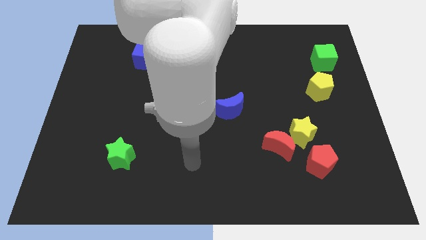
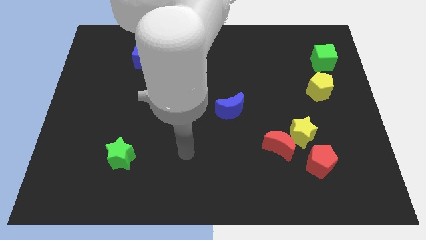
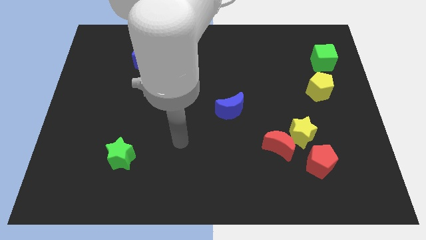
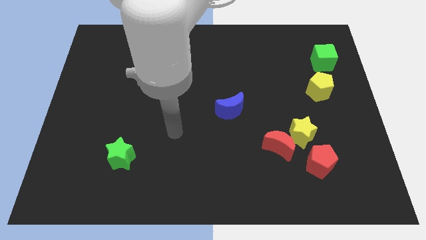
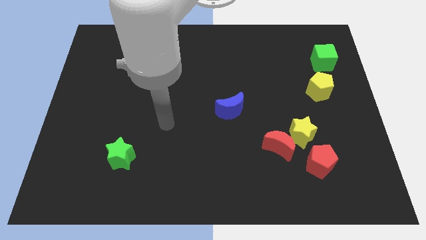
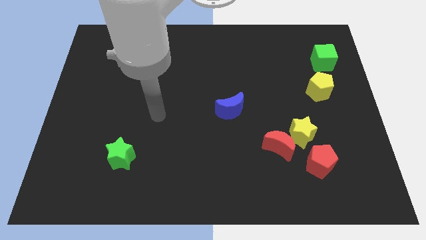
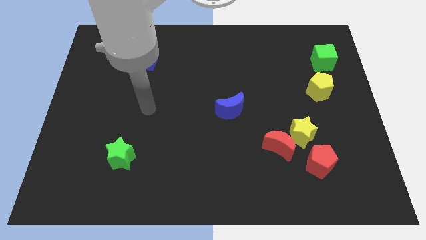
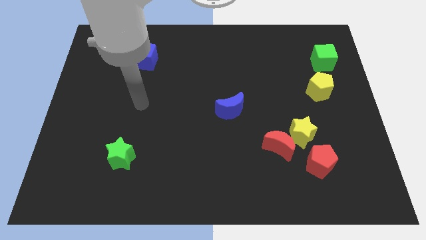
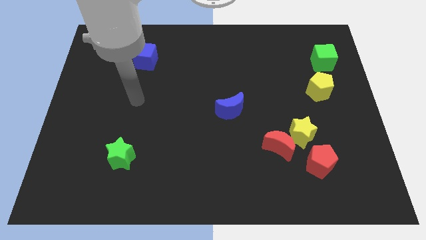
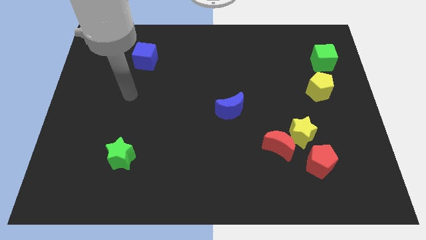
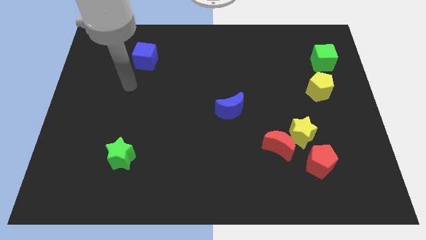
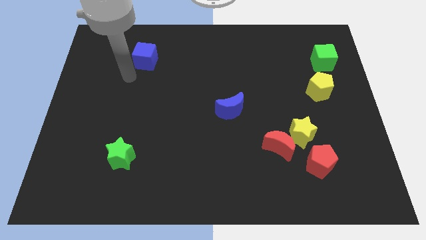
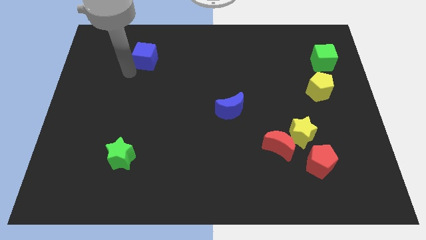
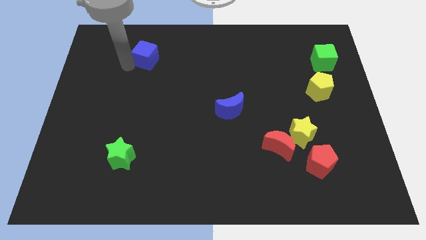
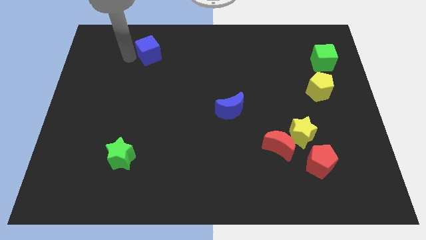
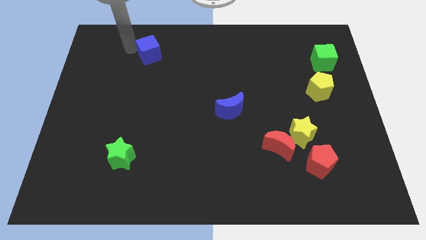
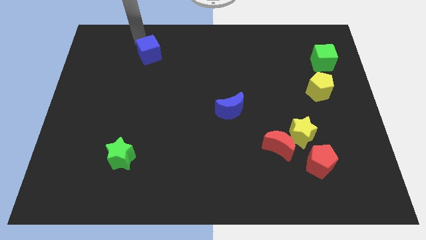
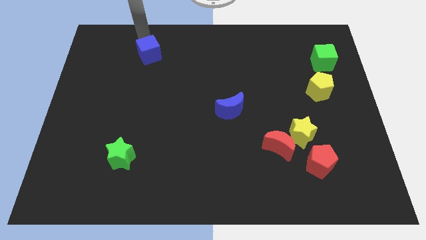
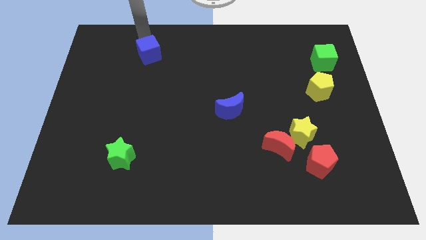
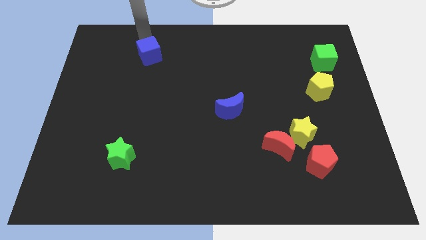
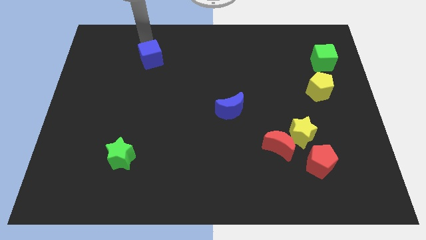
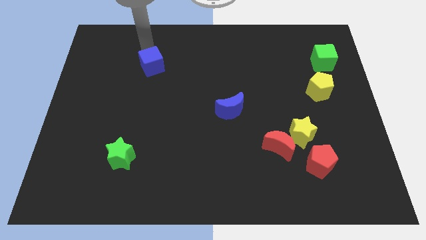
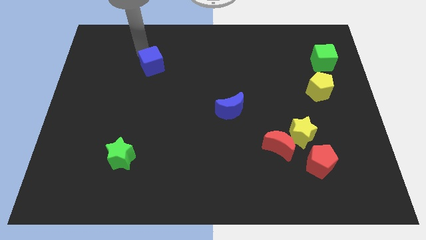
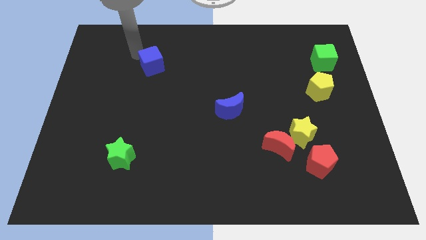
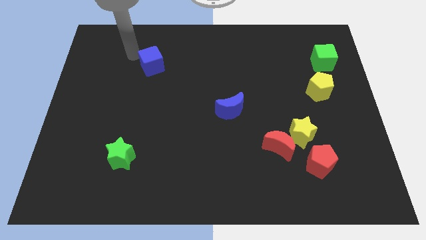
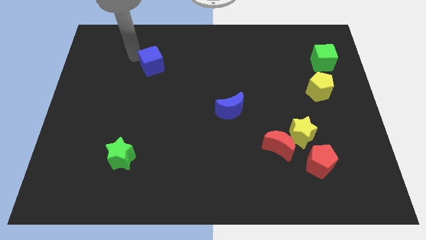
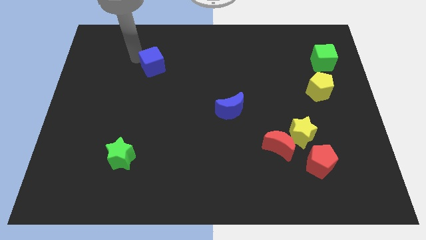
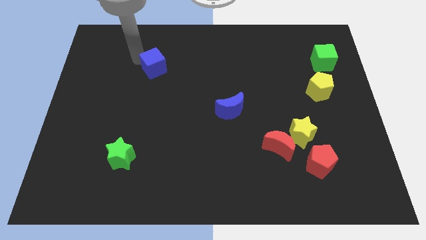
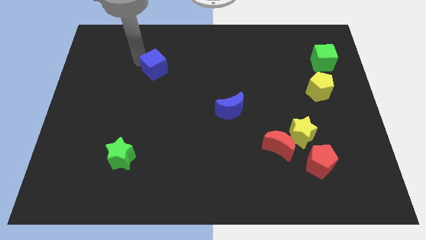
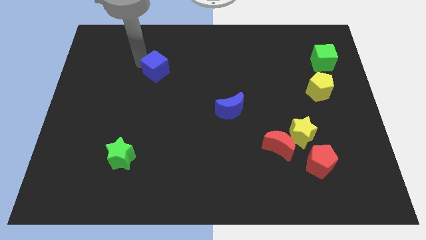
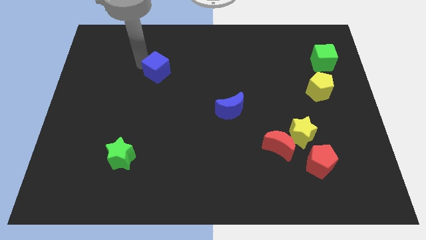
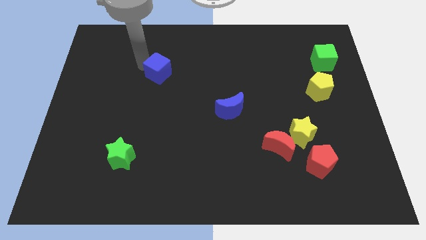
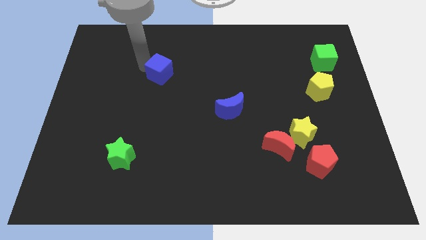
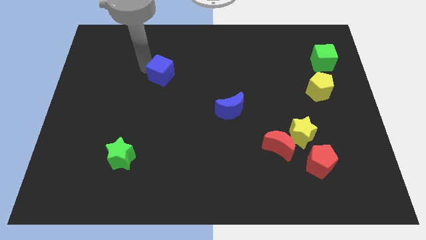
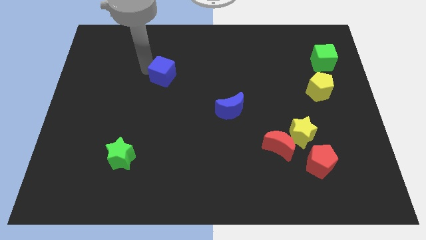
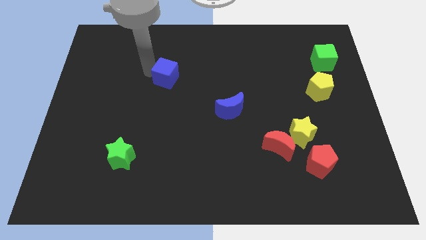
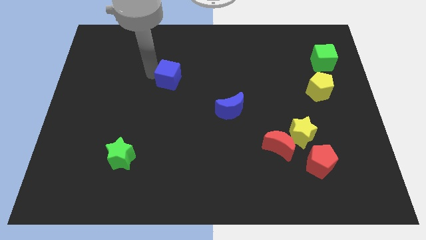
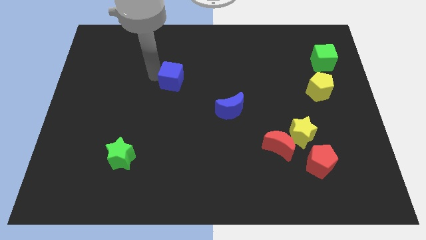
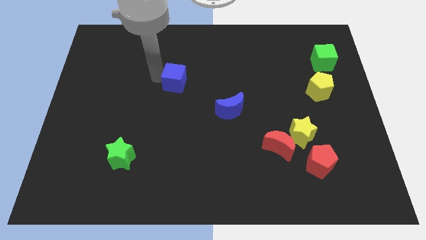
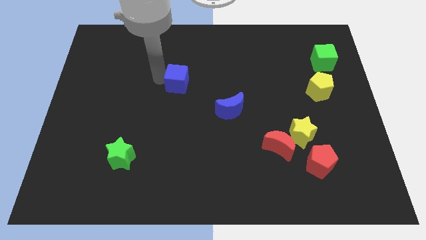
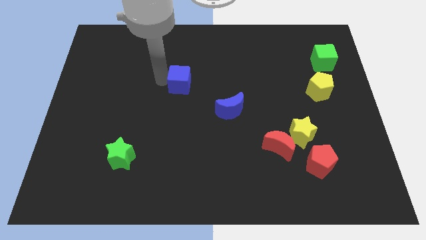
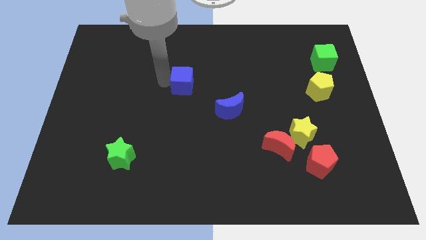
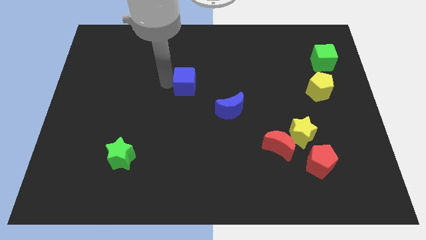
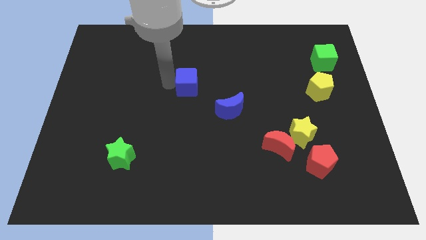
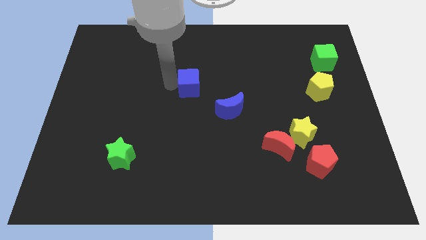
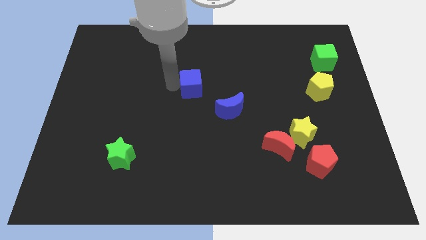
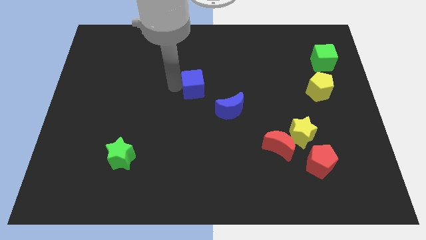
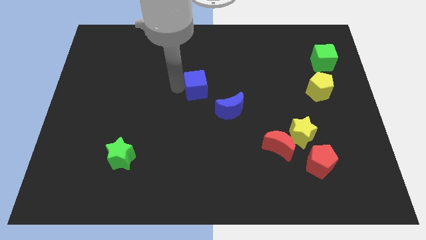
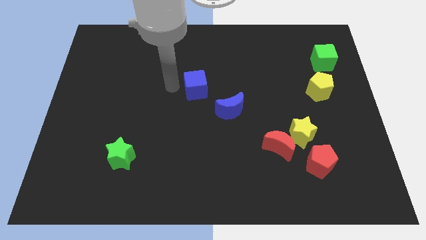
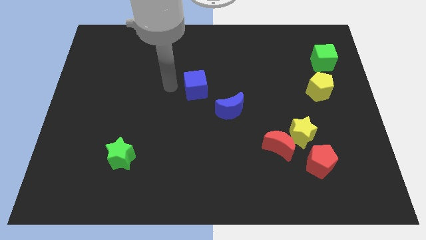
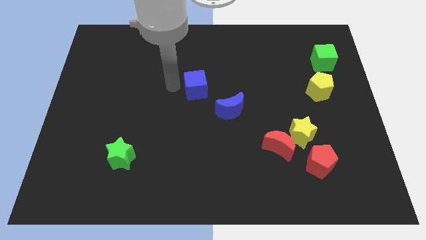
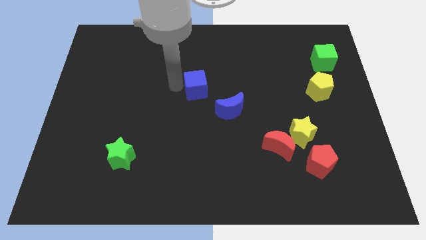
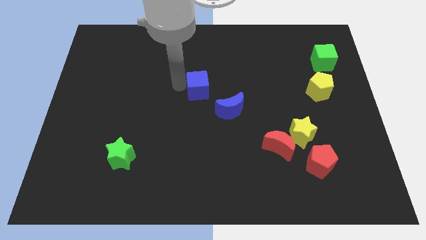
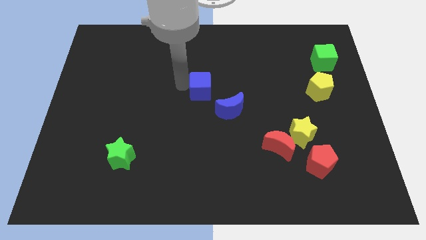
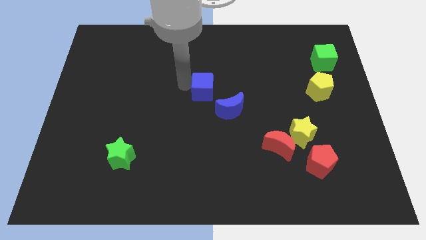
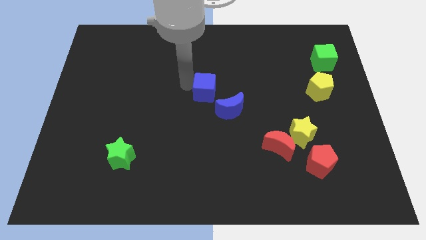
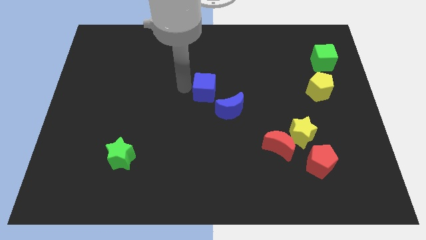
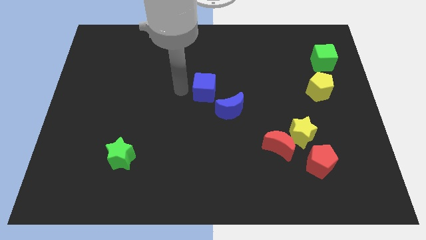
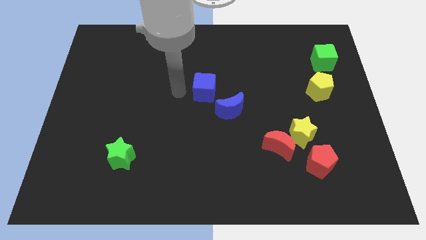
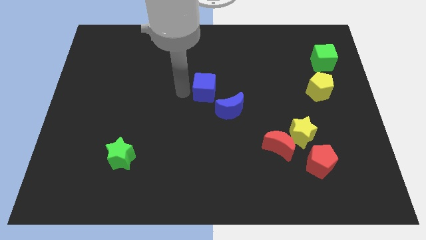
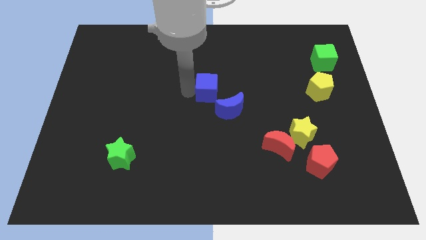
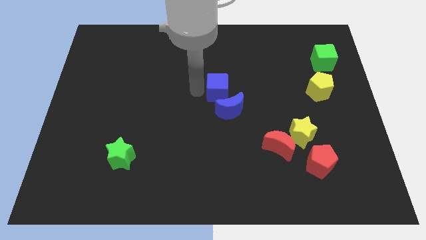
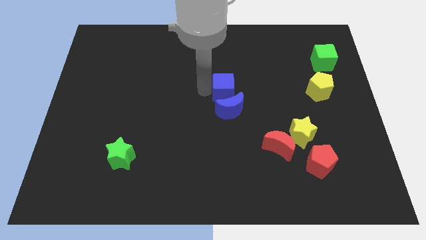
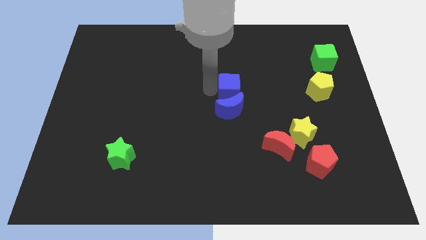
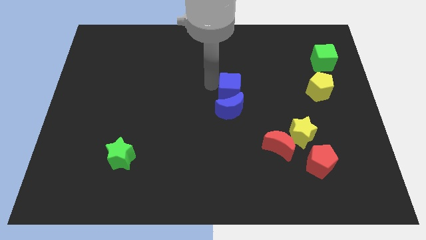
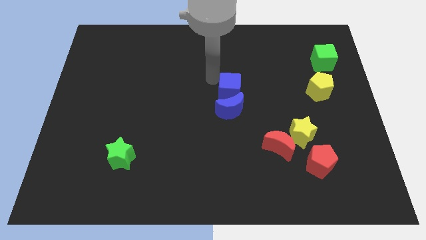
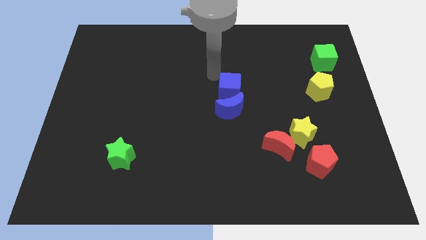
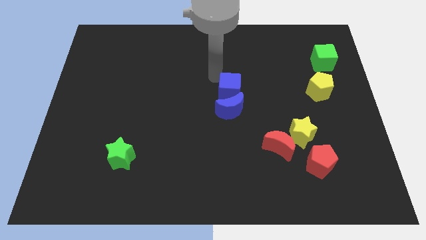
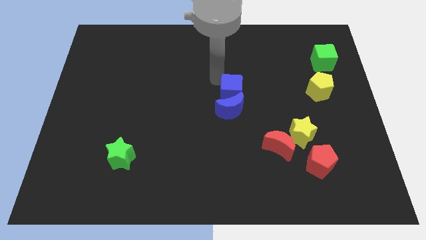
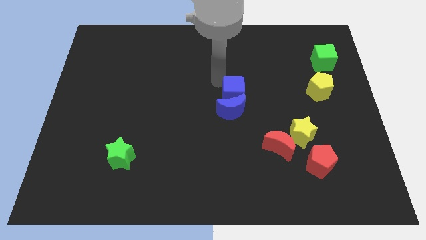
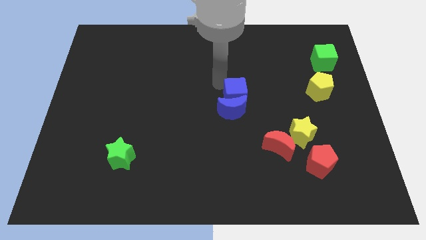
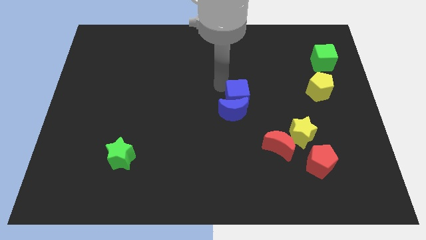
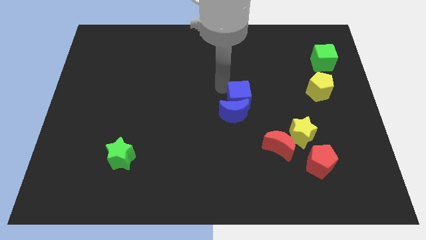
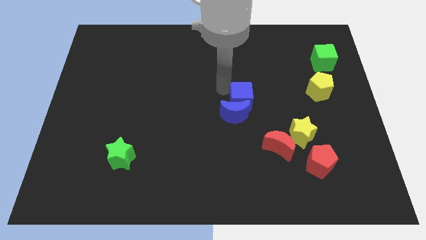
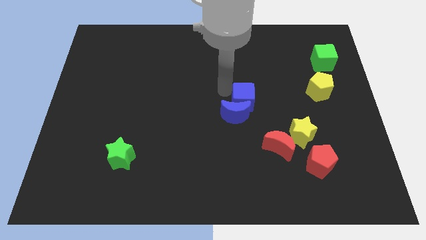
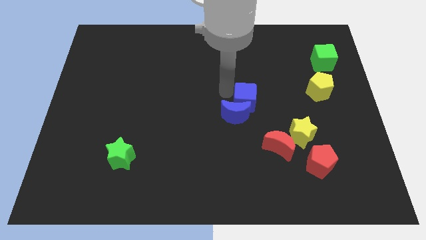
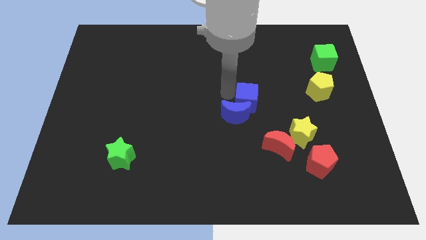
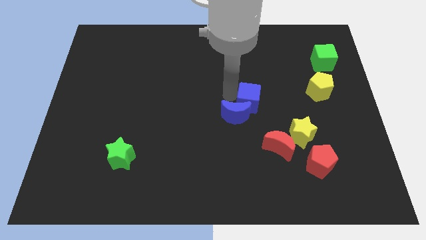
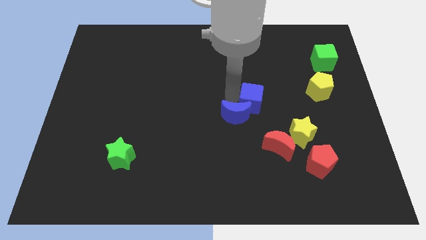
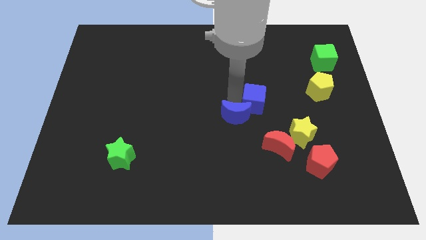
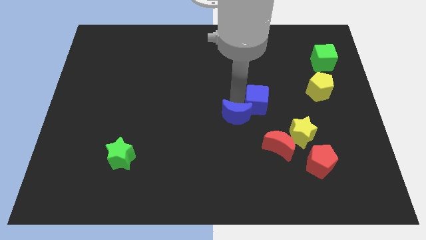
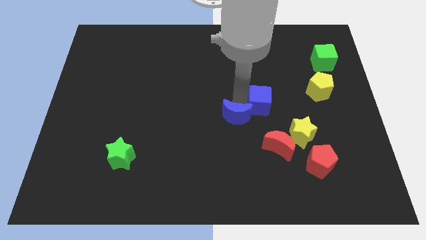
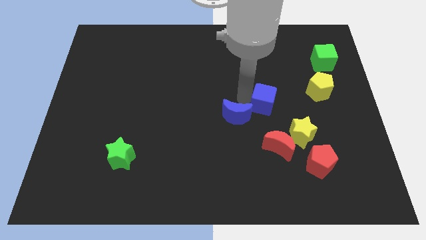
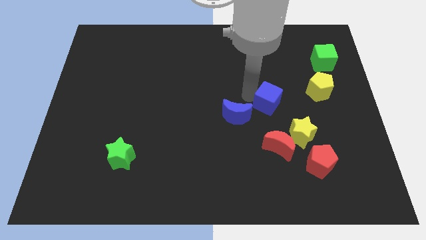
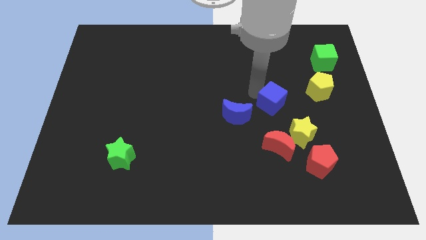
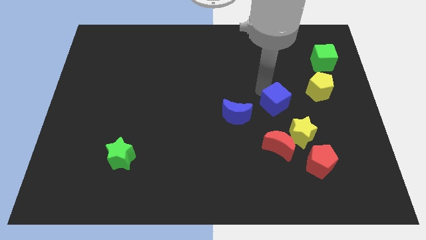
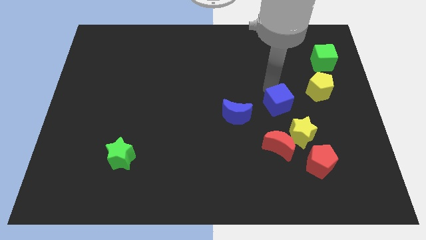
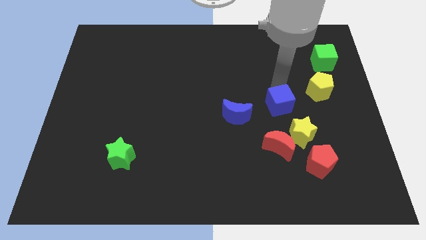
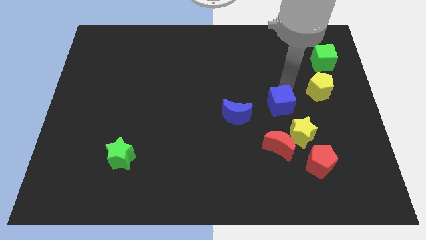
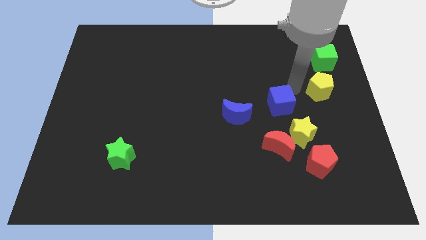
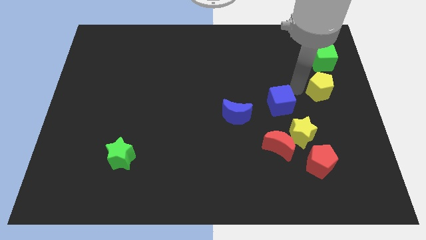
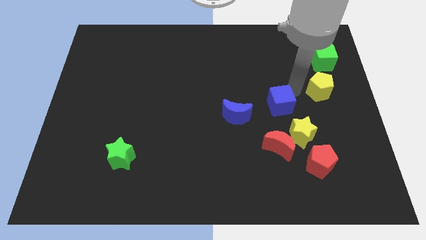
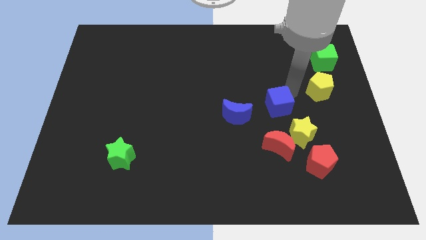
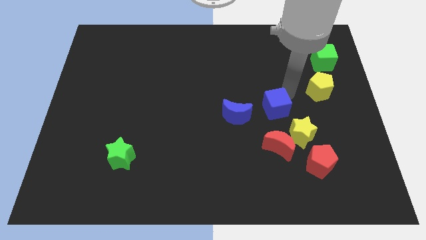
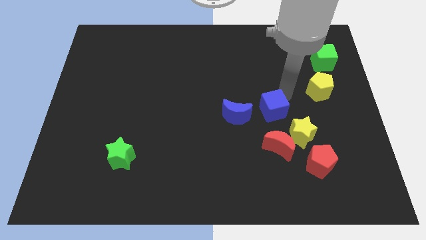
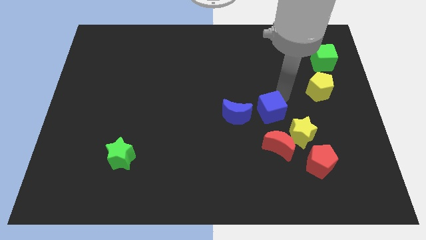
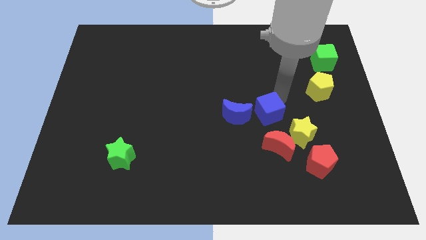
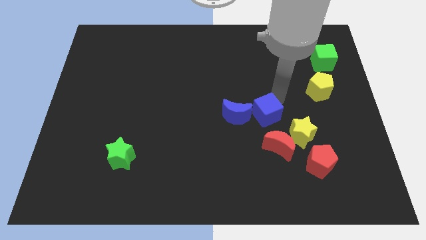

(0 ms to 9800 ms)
put the blue cube to the top left of the red moon
